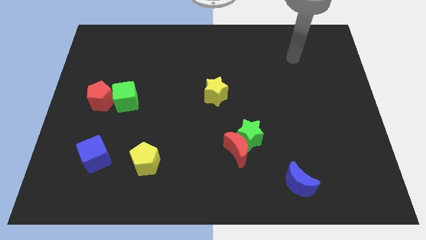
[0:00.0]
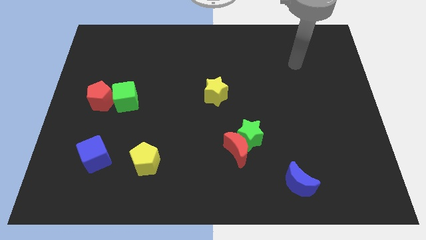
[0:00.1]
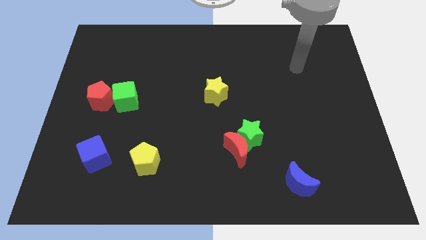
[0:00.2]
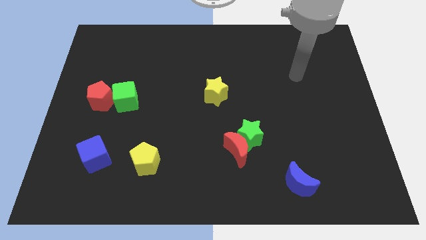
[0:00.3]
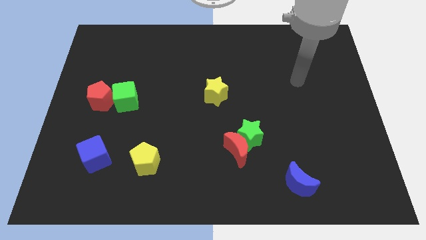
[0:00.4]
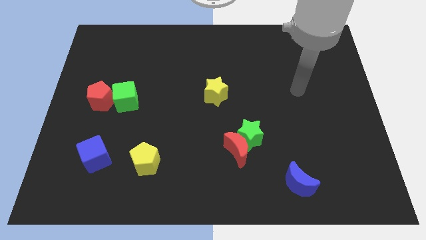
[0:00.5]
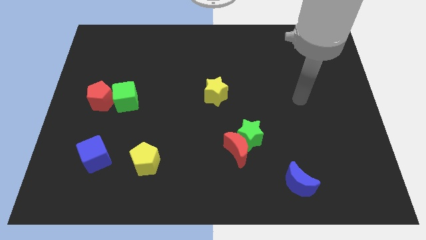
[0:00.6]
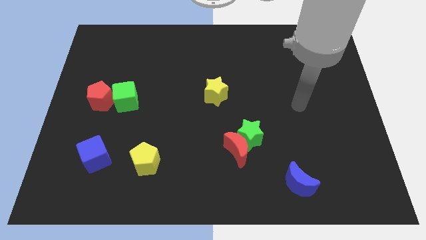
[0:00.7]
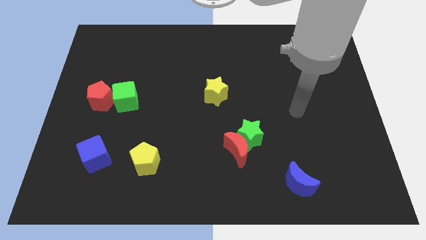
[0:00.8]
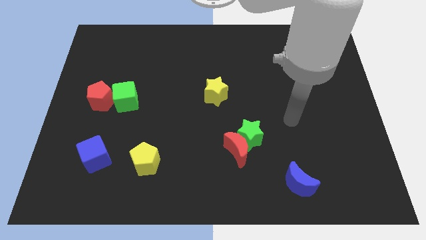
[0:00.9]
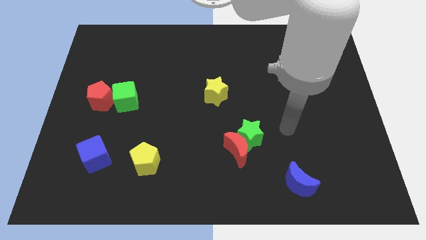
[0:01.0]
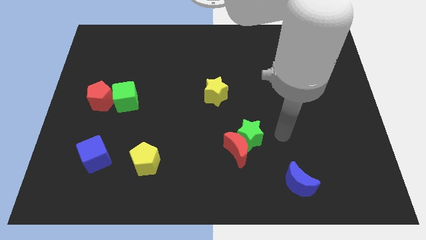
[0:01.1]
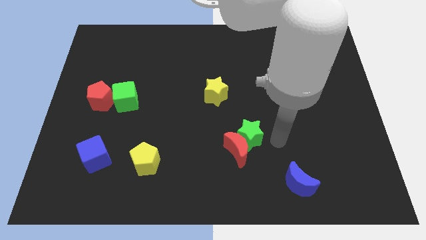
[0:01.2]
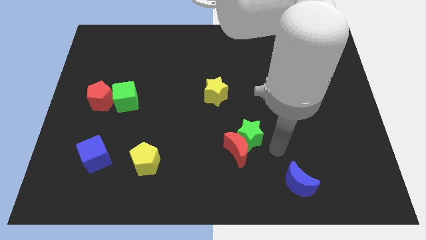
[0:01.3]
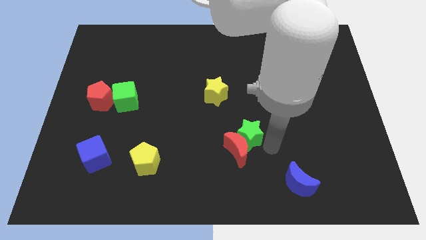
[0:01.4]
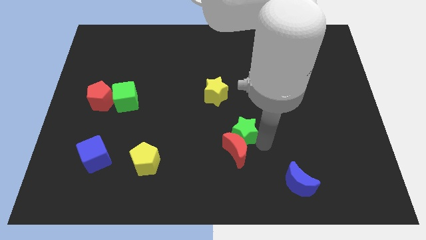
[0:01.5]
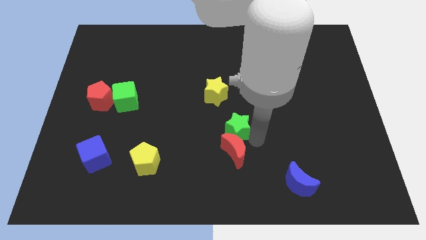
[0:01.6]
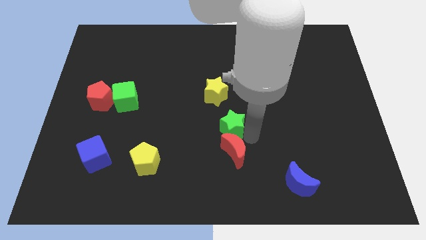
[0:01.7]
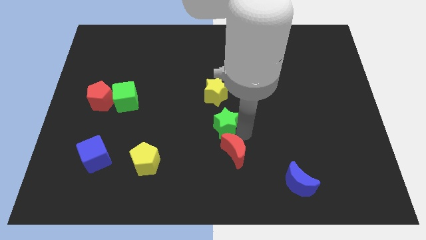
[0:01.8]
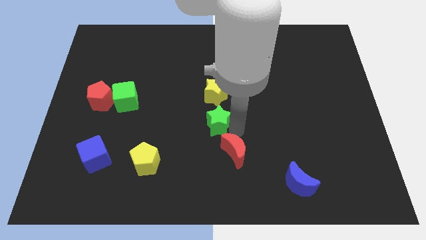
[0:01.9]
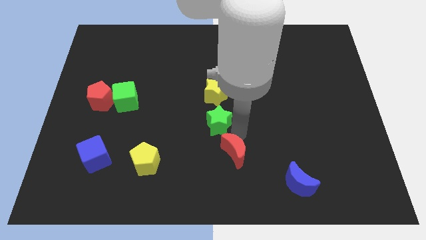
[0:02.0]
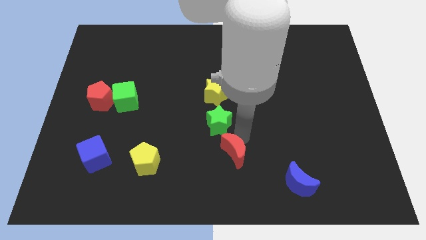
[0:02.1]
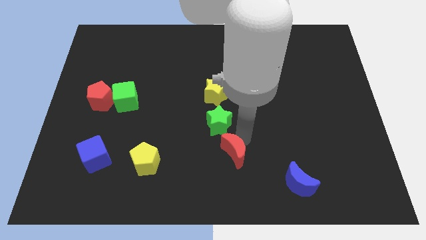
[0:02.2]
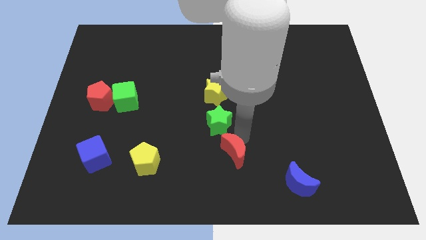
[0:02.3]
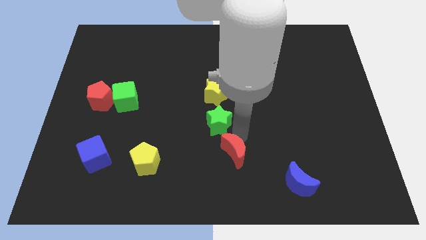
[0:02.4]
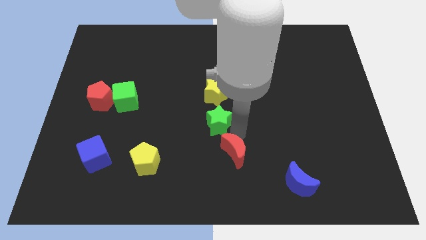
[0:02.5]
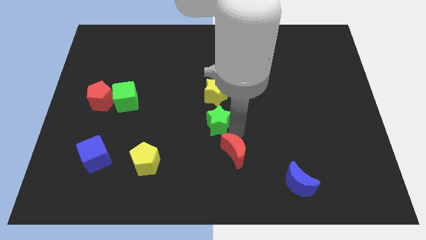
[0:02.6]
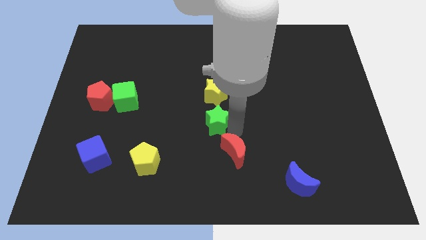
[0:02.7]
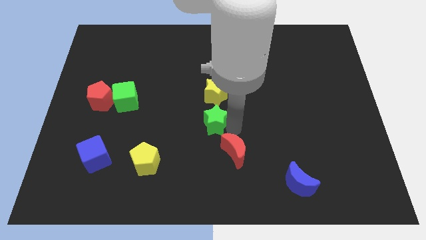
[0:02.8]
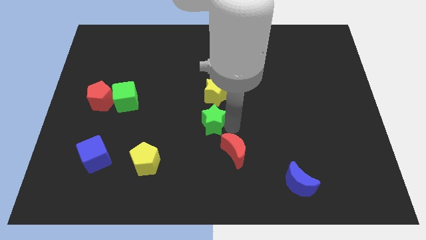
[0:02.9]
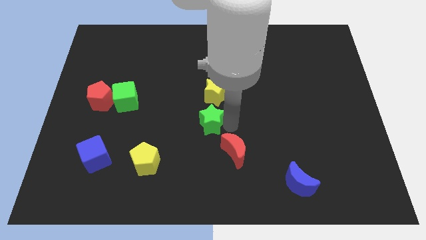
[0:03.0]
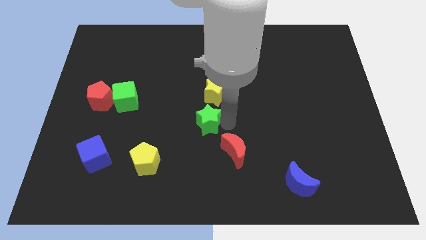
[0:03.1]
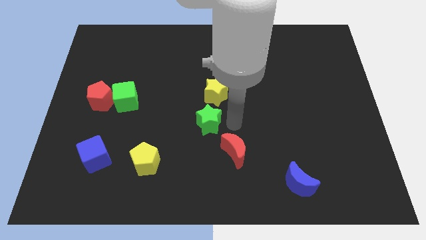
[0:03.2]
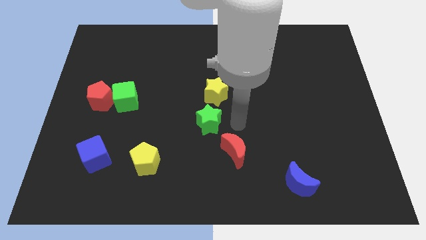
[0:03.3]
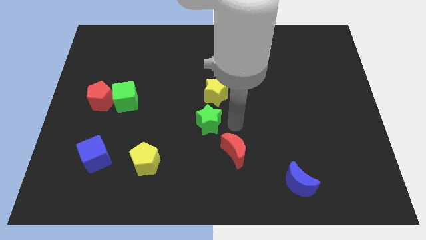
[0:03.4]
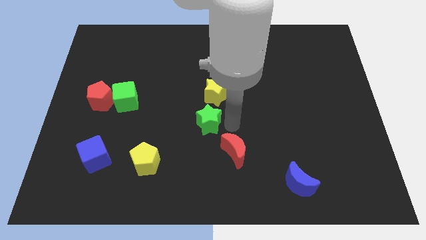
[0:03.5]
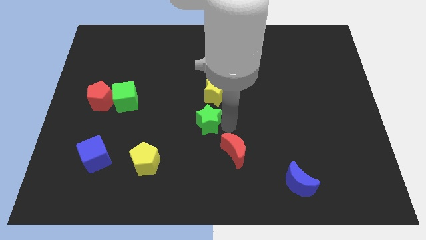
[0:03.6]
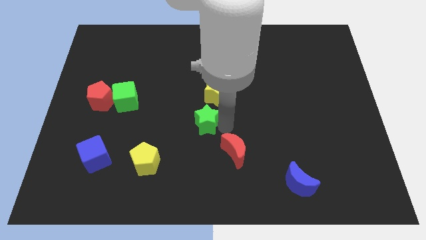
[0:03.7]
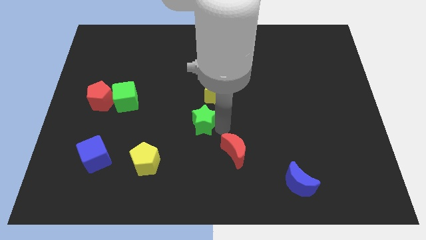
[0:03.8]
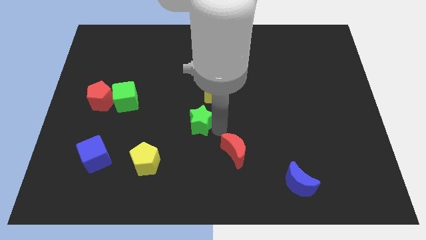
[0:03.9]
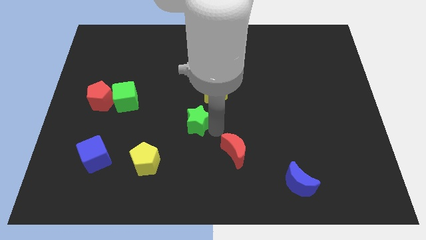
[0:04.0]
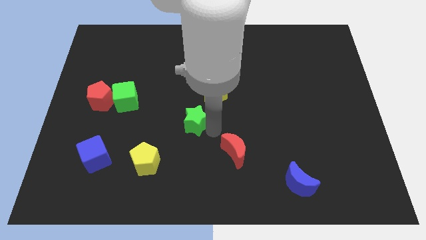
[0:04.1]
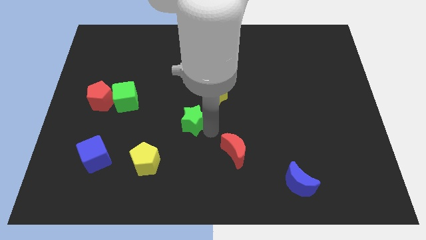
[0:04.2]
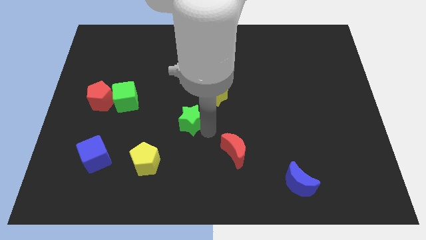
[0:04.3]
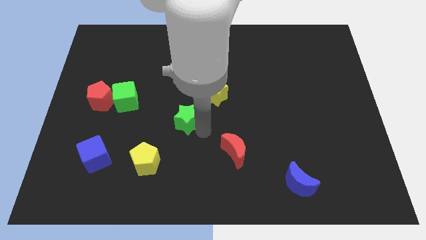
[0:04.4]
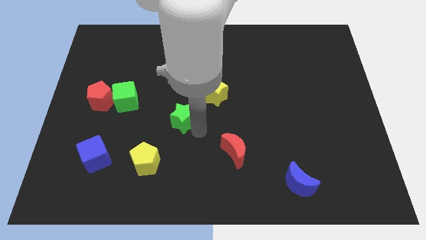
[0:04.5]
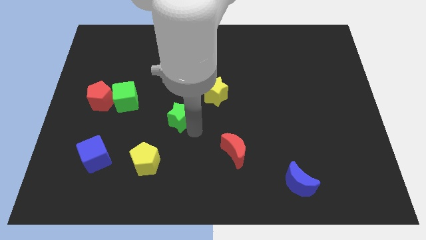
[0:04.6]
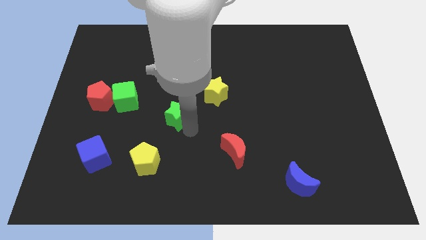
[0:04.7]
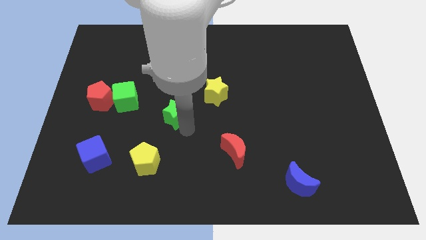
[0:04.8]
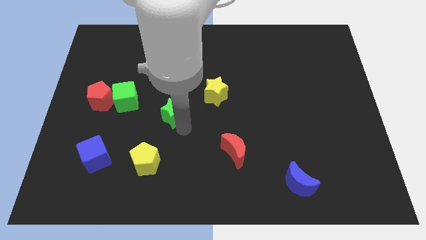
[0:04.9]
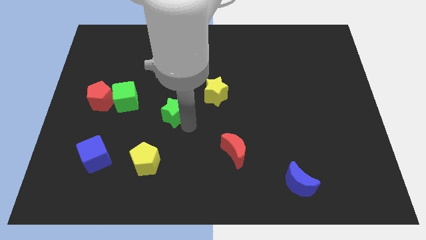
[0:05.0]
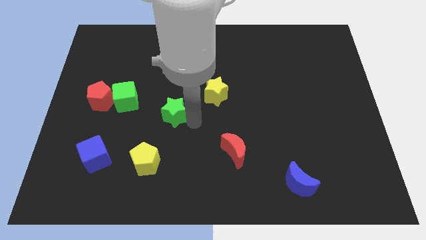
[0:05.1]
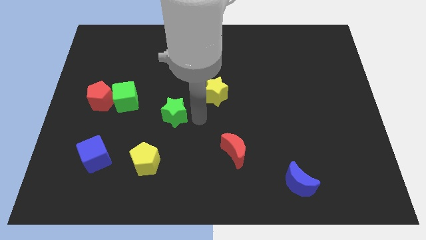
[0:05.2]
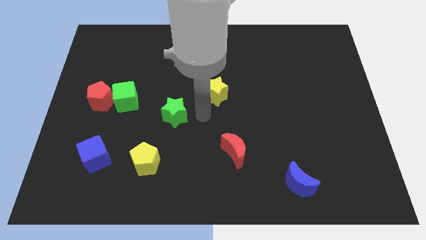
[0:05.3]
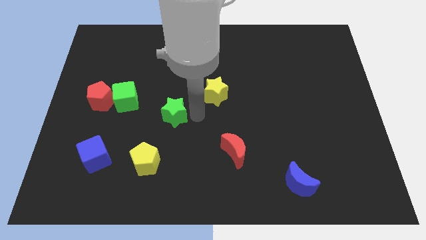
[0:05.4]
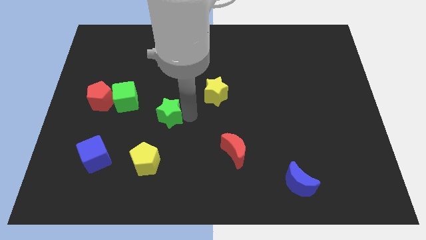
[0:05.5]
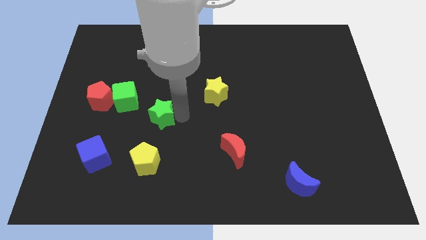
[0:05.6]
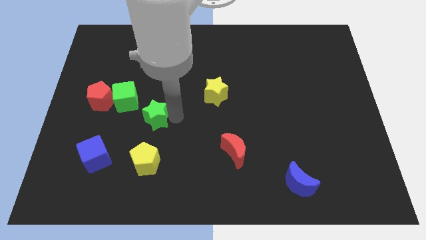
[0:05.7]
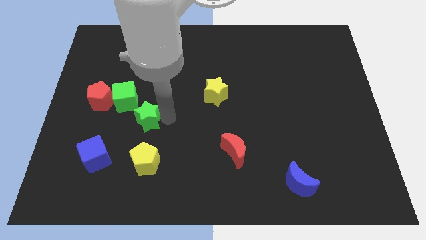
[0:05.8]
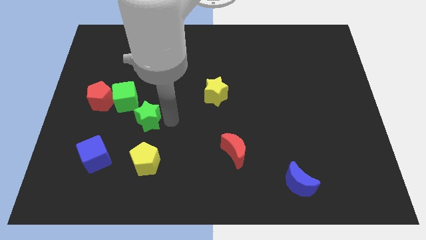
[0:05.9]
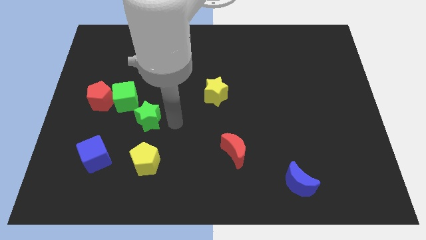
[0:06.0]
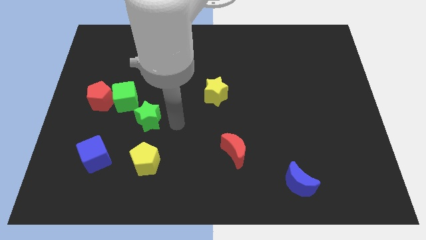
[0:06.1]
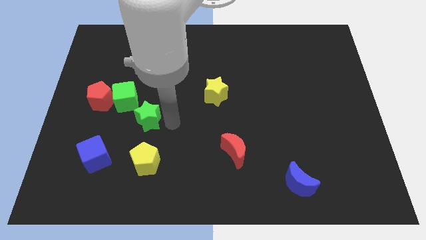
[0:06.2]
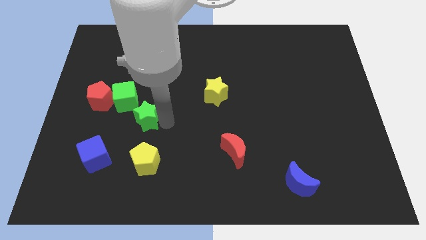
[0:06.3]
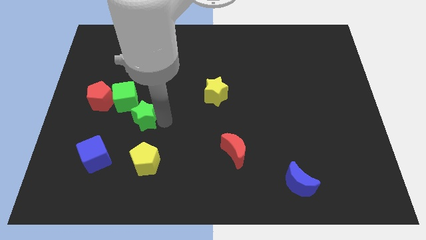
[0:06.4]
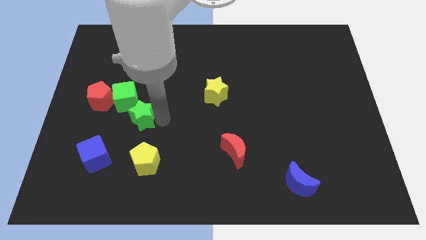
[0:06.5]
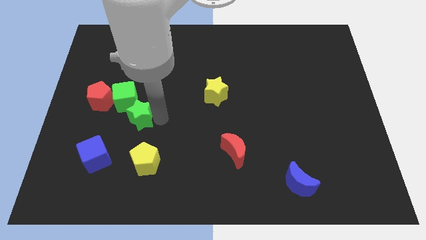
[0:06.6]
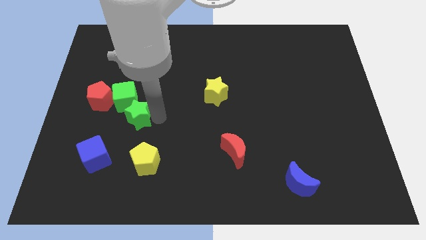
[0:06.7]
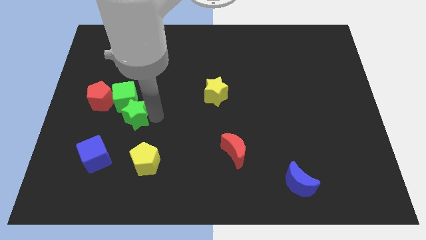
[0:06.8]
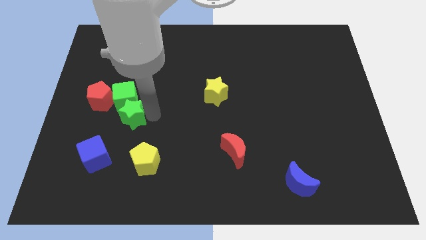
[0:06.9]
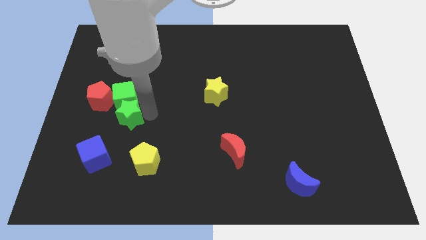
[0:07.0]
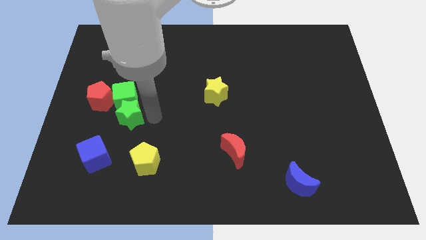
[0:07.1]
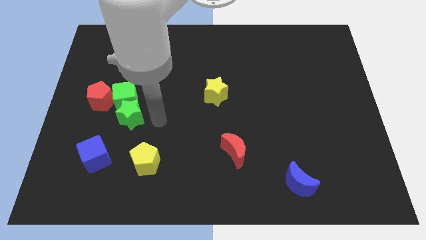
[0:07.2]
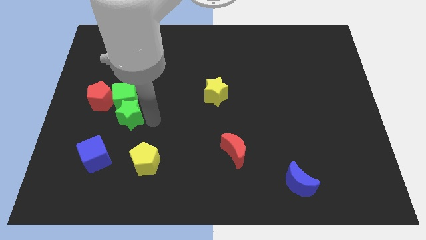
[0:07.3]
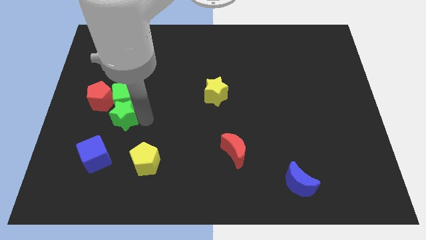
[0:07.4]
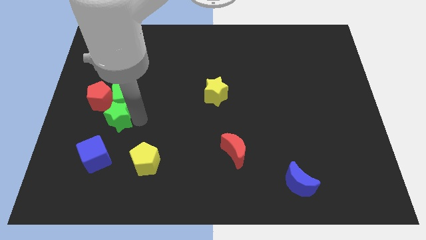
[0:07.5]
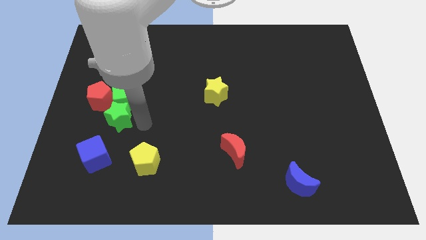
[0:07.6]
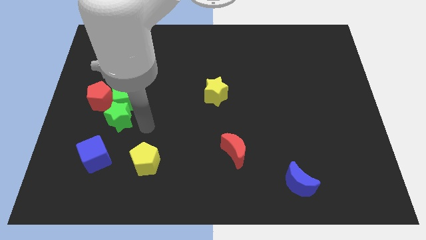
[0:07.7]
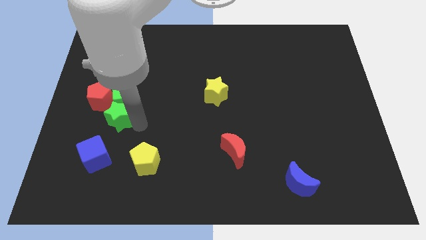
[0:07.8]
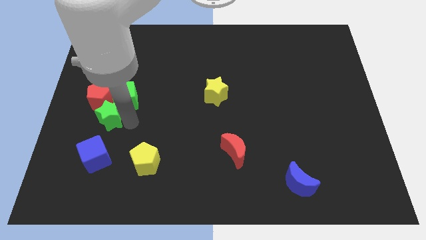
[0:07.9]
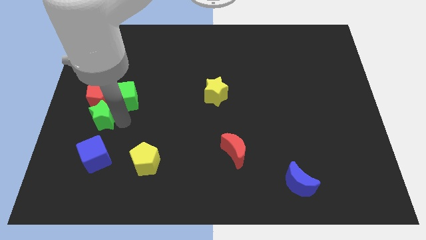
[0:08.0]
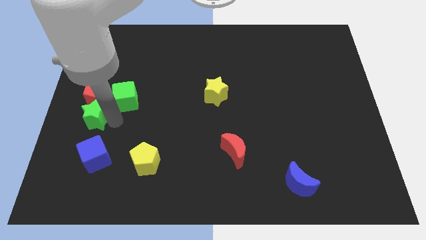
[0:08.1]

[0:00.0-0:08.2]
put the green star to the left side of the board
